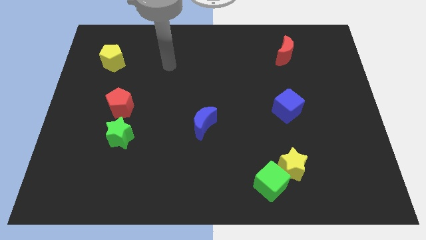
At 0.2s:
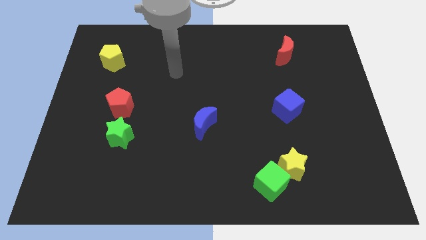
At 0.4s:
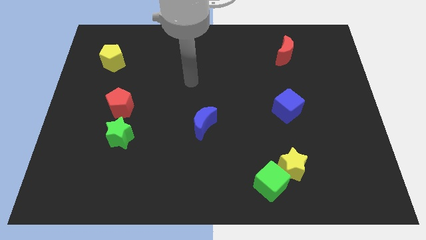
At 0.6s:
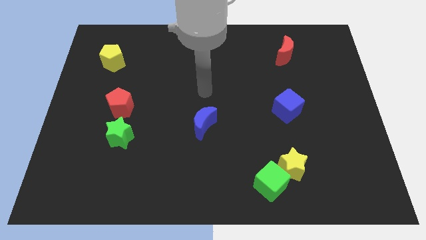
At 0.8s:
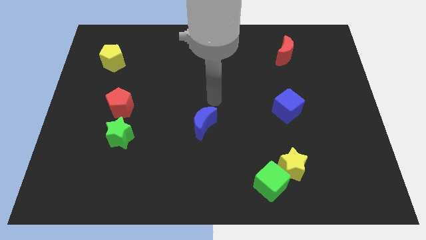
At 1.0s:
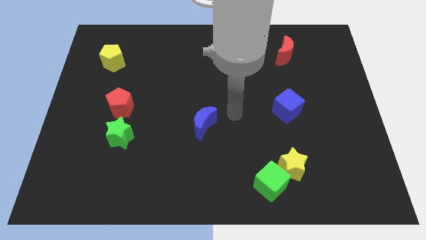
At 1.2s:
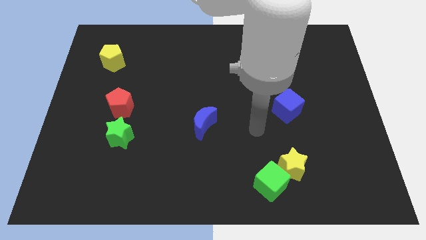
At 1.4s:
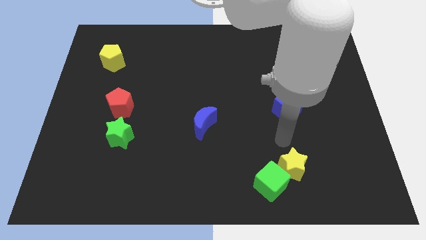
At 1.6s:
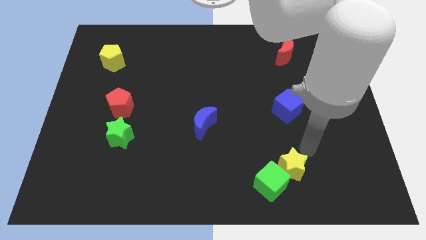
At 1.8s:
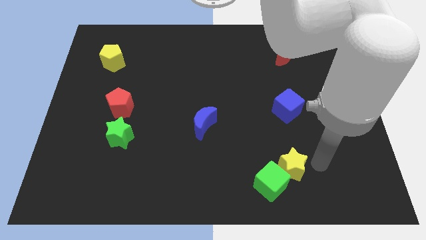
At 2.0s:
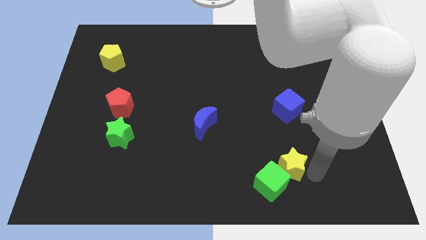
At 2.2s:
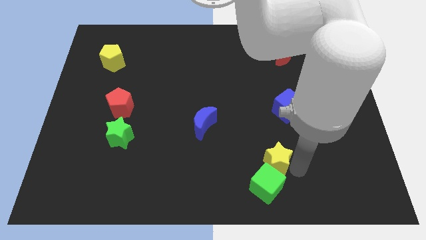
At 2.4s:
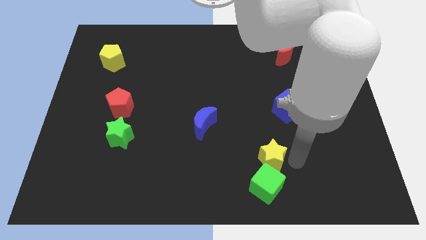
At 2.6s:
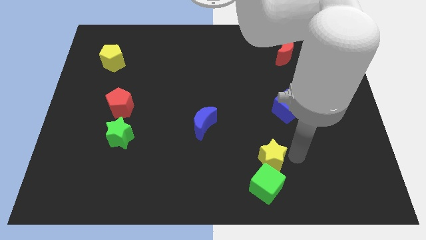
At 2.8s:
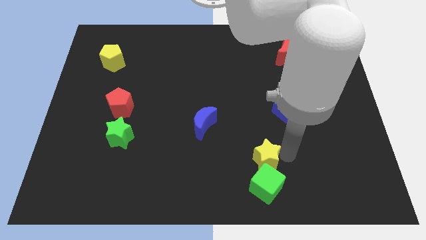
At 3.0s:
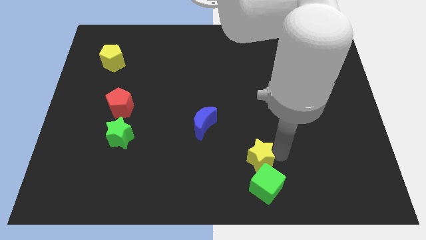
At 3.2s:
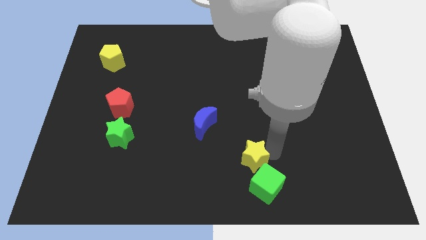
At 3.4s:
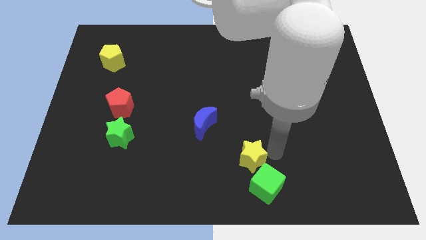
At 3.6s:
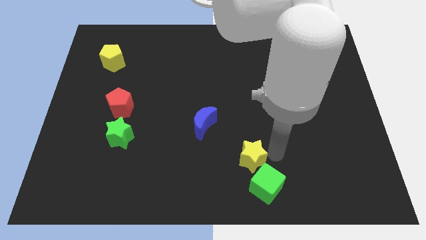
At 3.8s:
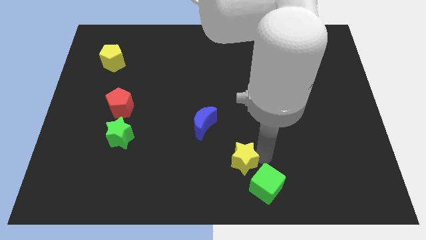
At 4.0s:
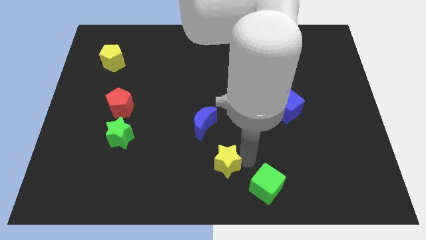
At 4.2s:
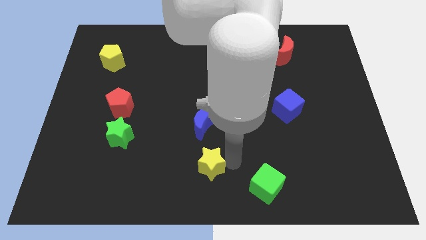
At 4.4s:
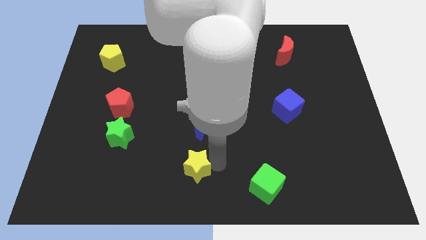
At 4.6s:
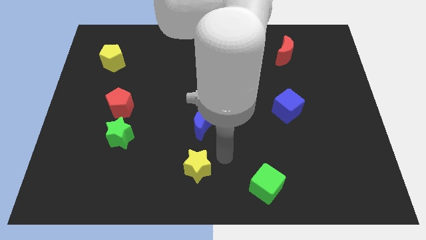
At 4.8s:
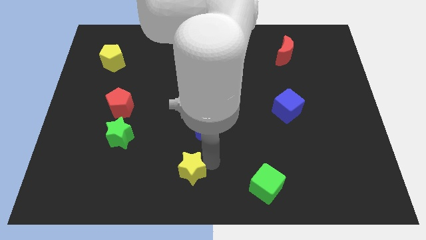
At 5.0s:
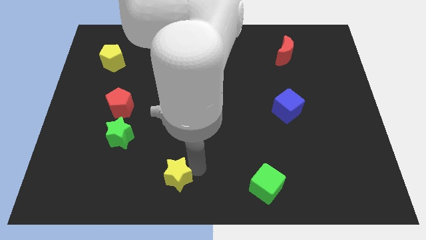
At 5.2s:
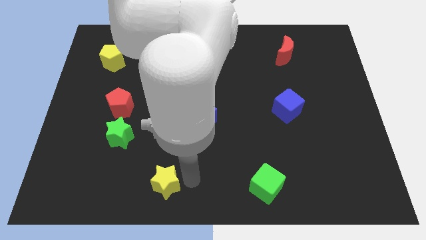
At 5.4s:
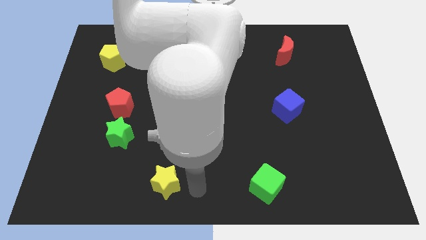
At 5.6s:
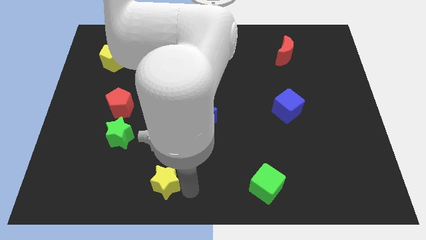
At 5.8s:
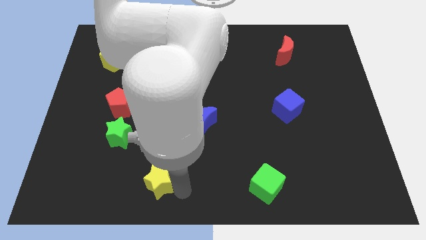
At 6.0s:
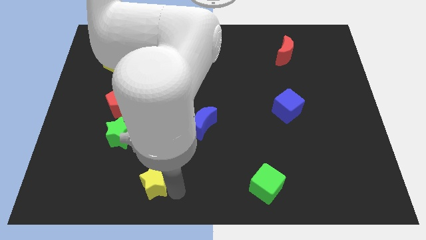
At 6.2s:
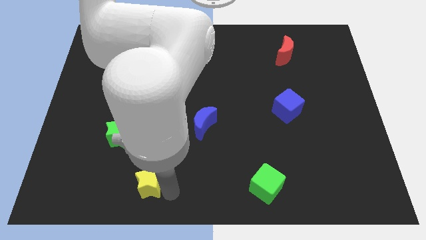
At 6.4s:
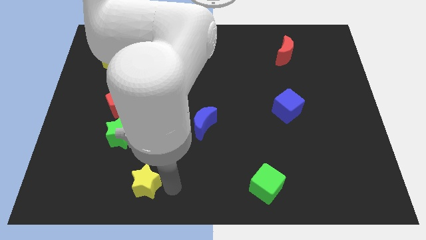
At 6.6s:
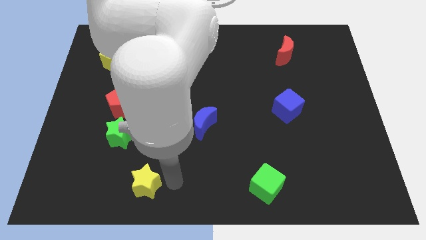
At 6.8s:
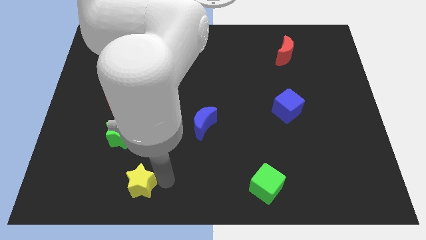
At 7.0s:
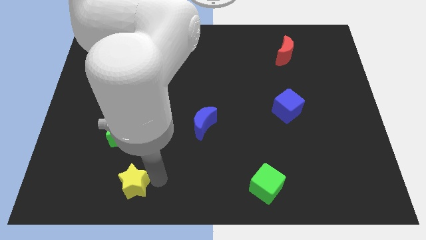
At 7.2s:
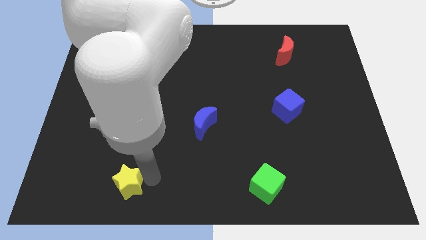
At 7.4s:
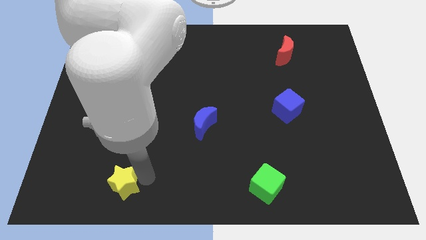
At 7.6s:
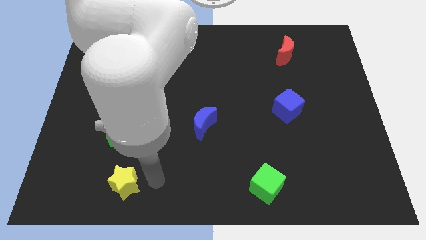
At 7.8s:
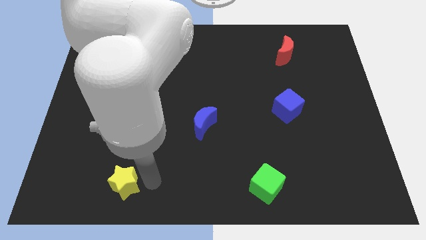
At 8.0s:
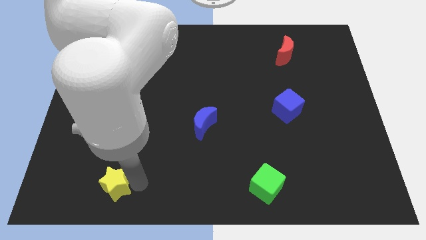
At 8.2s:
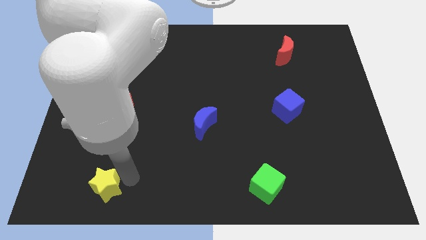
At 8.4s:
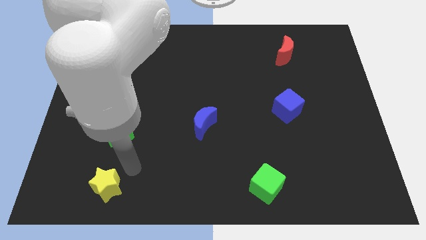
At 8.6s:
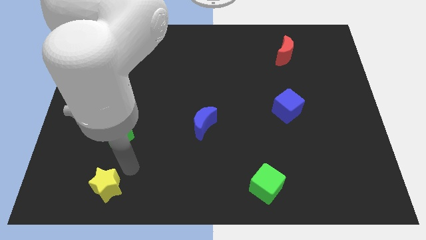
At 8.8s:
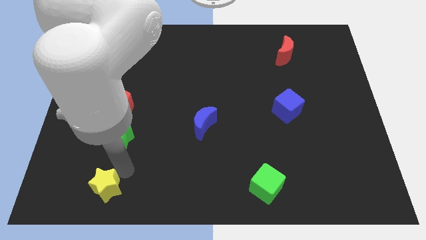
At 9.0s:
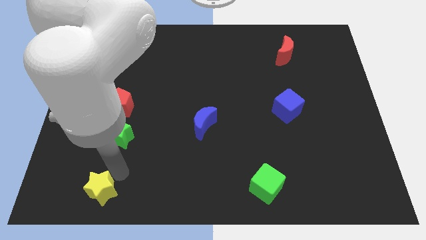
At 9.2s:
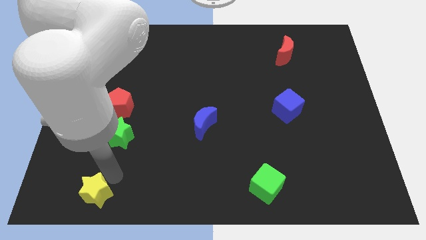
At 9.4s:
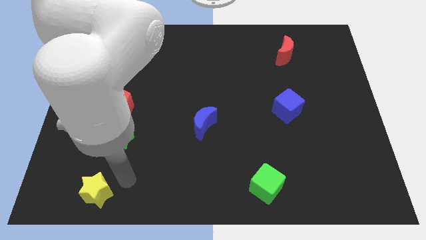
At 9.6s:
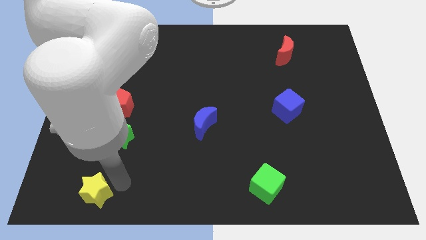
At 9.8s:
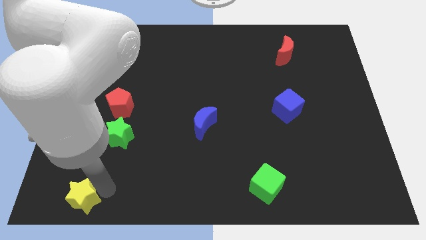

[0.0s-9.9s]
push the yellow star to the lower left corner

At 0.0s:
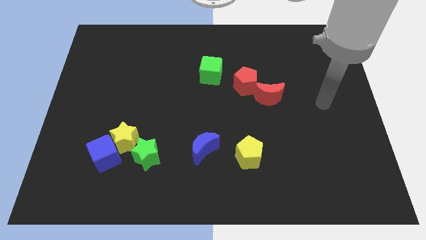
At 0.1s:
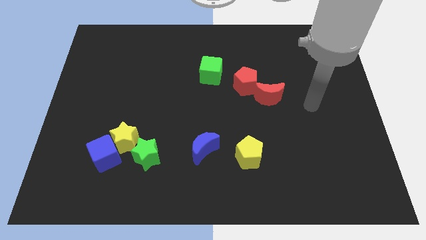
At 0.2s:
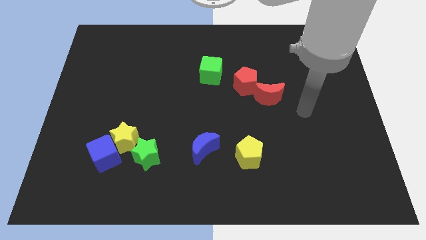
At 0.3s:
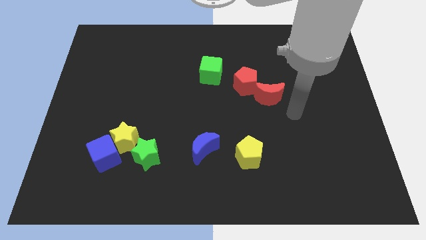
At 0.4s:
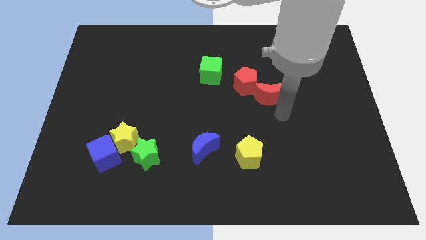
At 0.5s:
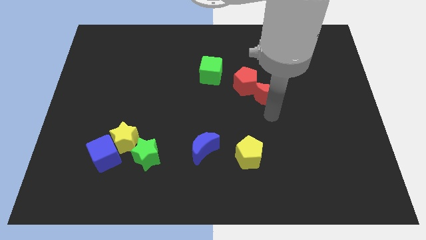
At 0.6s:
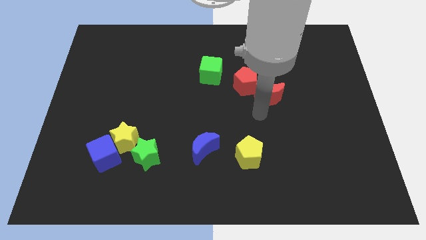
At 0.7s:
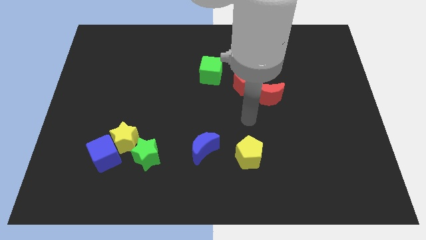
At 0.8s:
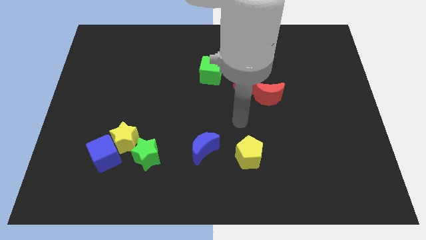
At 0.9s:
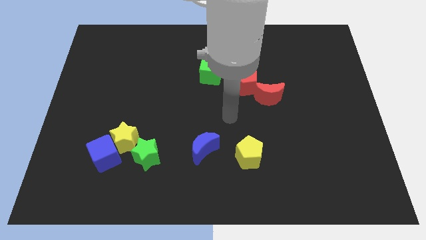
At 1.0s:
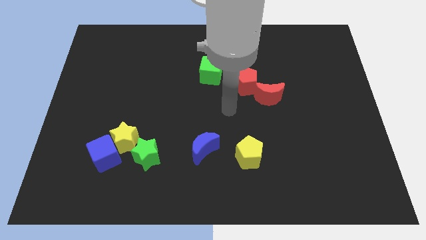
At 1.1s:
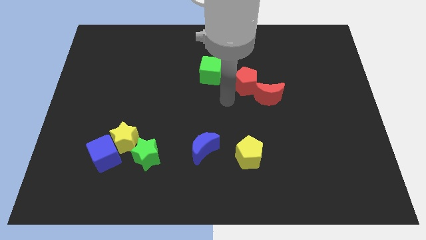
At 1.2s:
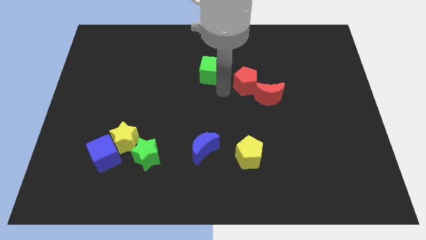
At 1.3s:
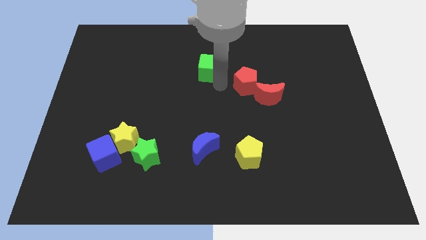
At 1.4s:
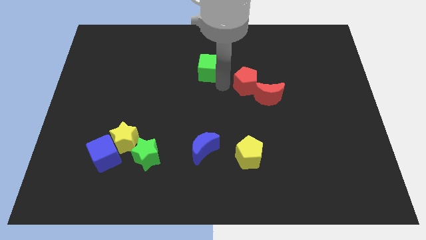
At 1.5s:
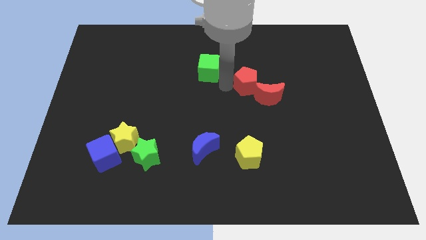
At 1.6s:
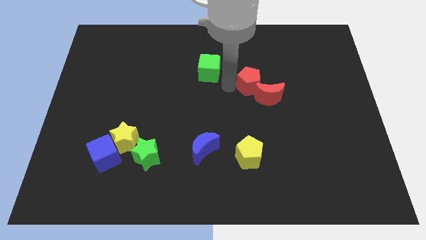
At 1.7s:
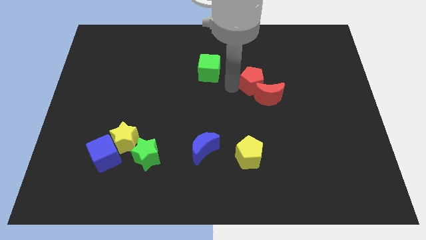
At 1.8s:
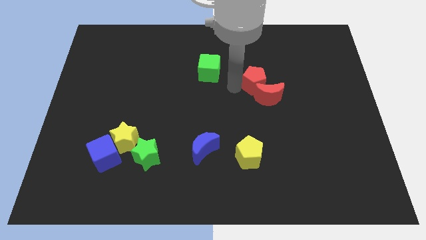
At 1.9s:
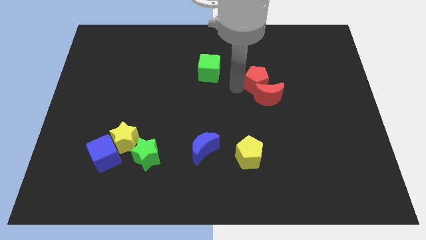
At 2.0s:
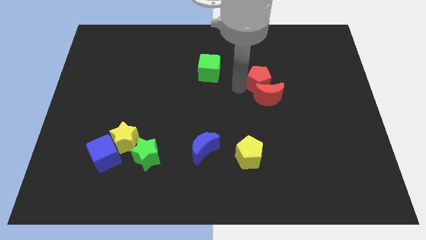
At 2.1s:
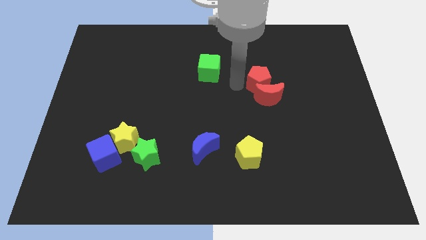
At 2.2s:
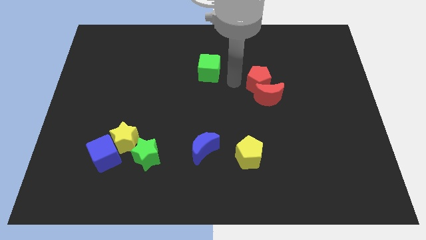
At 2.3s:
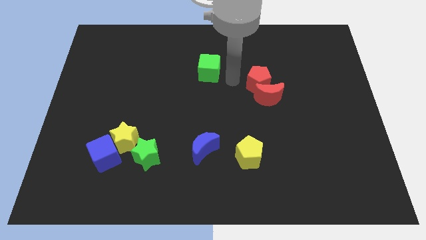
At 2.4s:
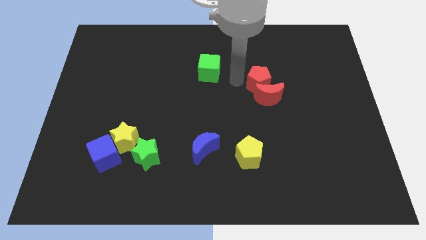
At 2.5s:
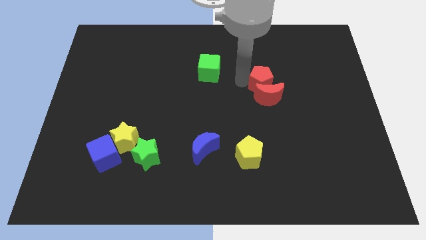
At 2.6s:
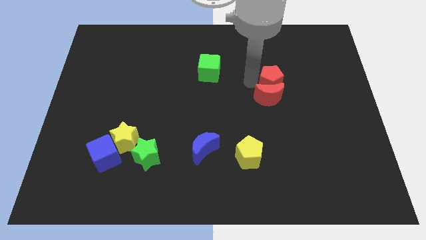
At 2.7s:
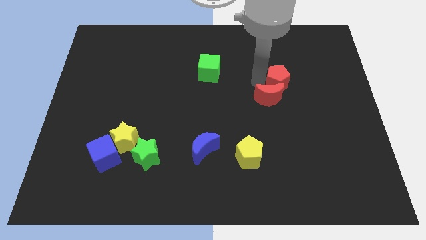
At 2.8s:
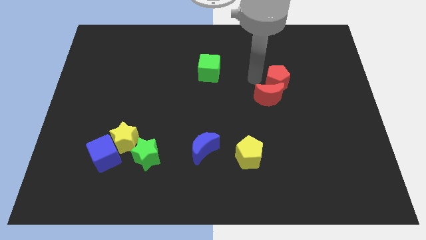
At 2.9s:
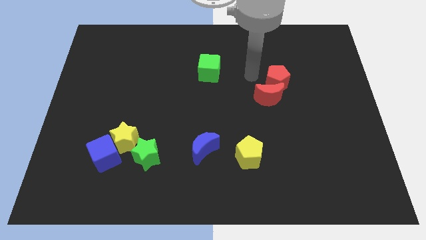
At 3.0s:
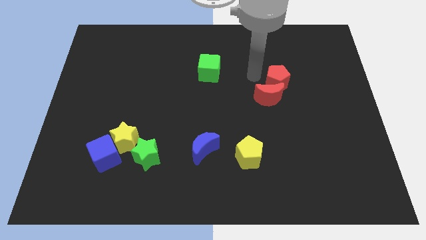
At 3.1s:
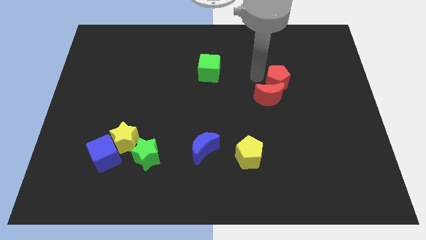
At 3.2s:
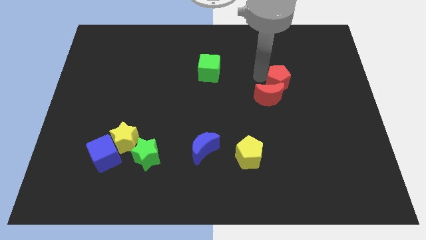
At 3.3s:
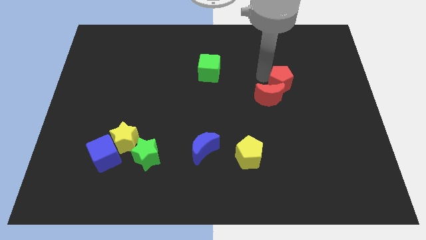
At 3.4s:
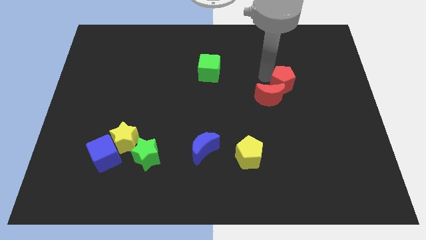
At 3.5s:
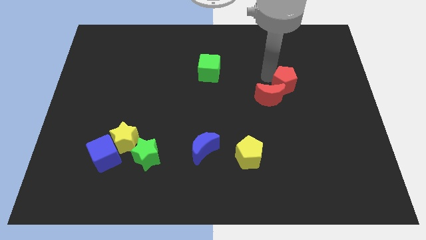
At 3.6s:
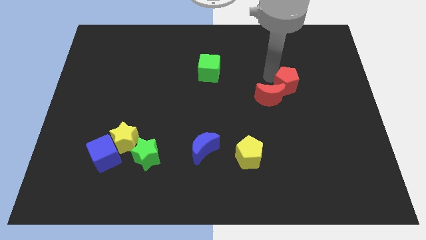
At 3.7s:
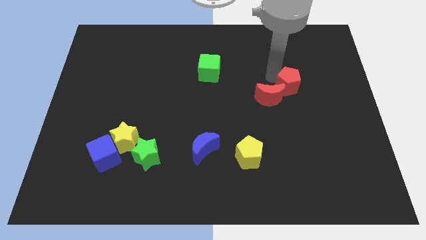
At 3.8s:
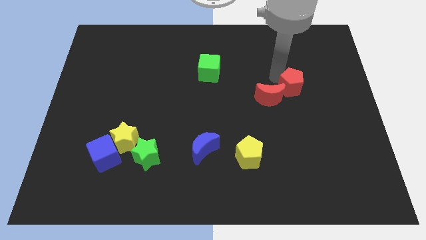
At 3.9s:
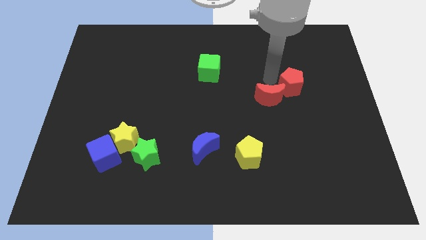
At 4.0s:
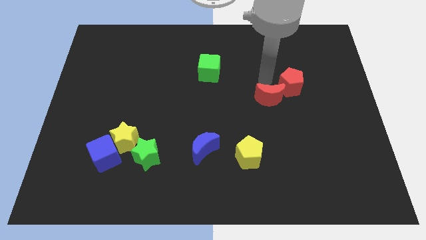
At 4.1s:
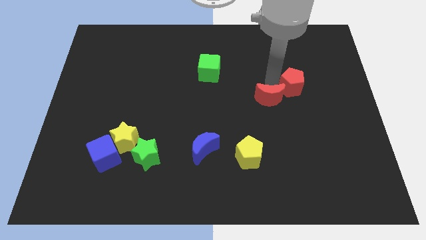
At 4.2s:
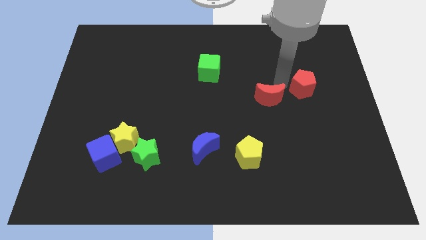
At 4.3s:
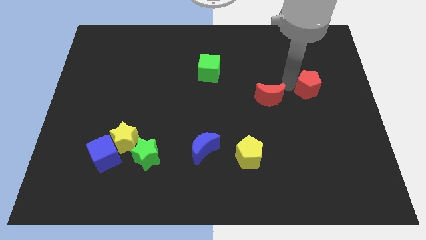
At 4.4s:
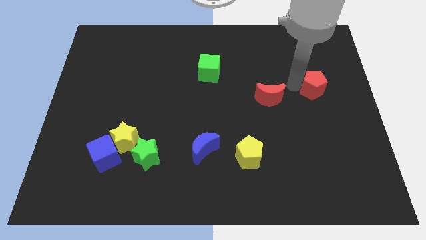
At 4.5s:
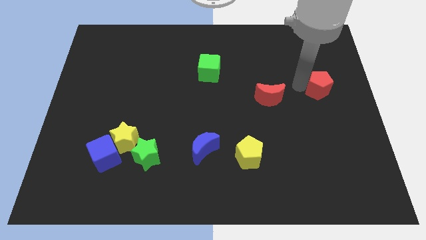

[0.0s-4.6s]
move the red pentagon to the right side
